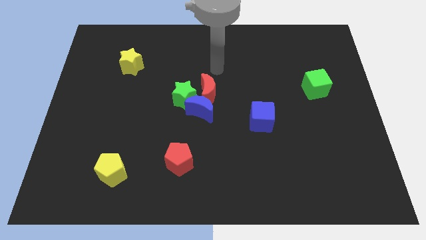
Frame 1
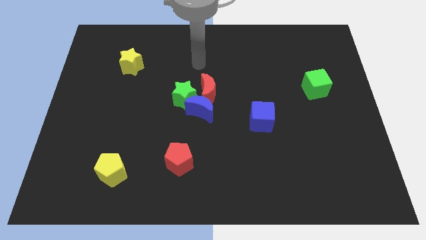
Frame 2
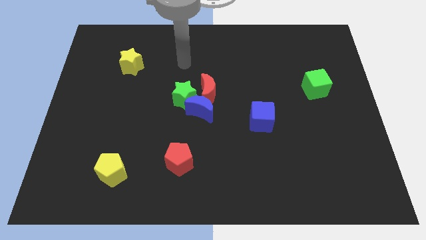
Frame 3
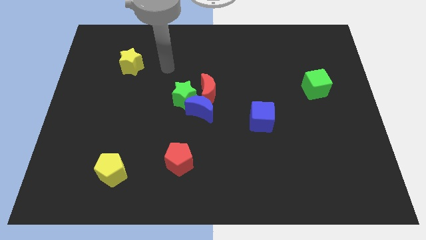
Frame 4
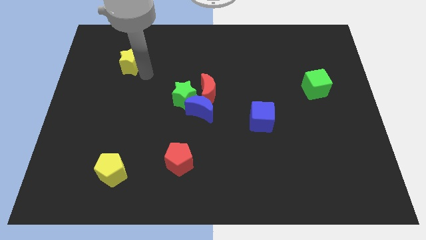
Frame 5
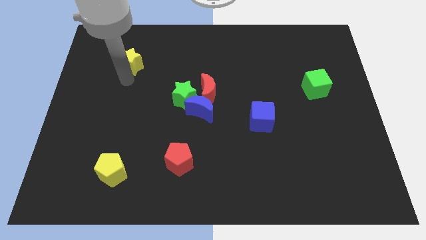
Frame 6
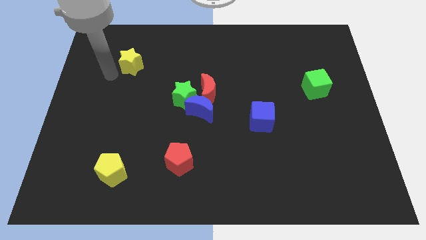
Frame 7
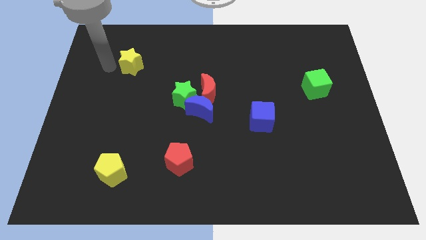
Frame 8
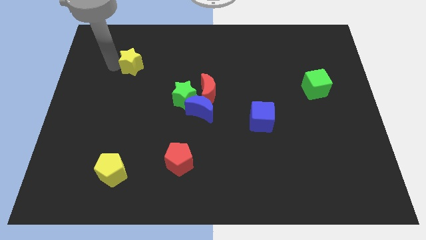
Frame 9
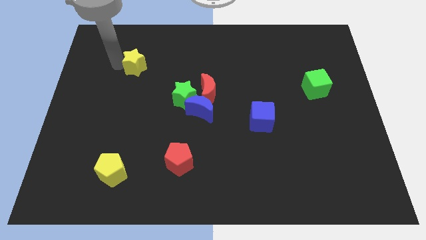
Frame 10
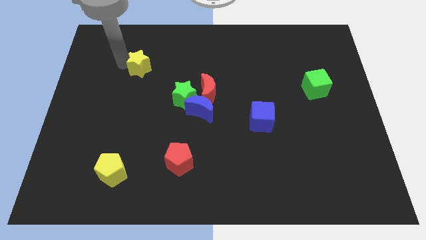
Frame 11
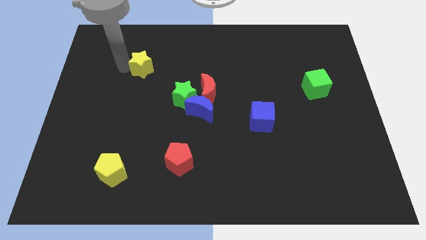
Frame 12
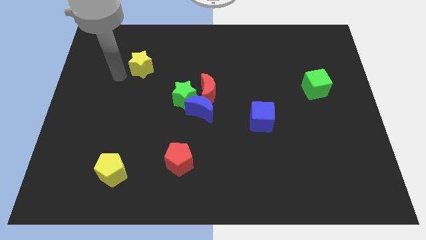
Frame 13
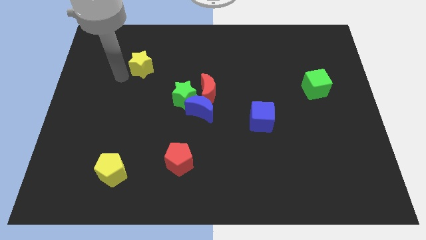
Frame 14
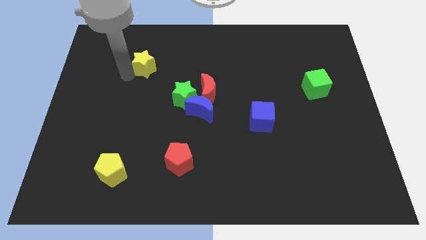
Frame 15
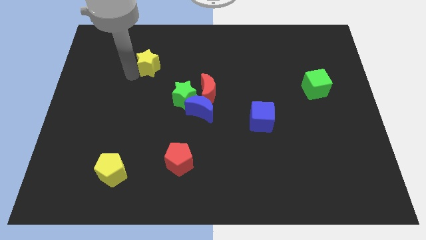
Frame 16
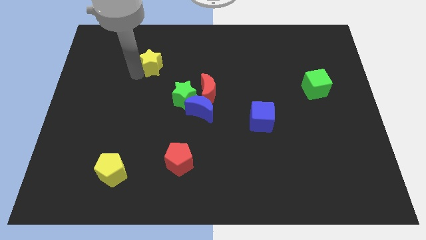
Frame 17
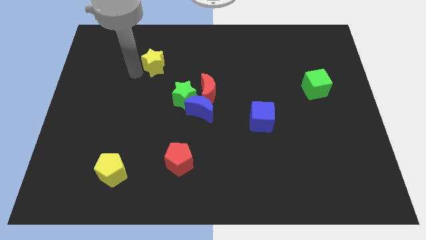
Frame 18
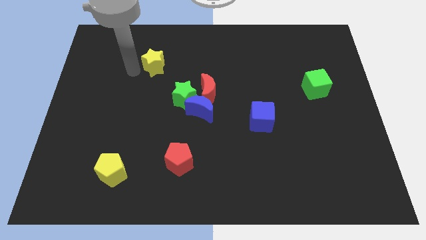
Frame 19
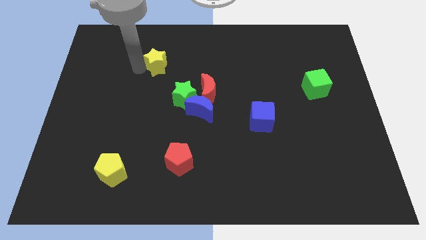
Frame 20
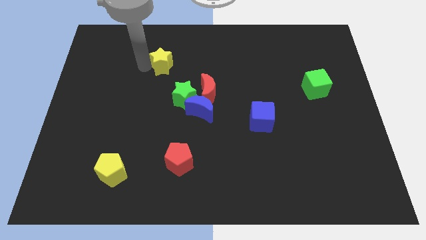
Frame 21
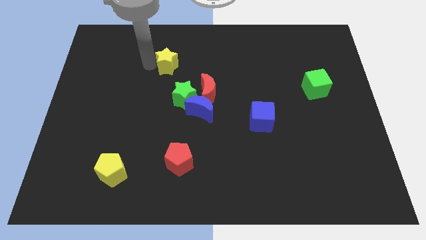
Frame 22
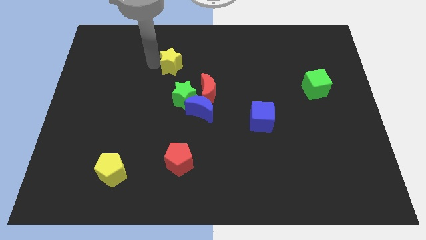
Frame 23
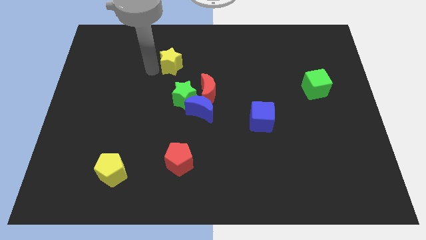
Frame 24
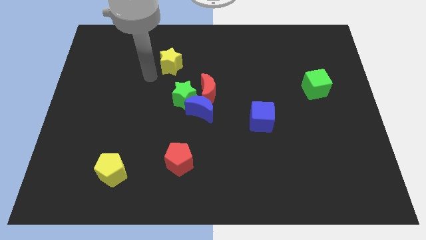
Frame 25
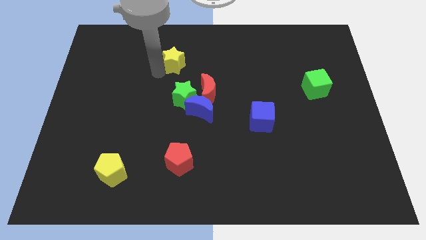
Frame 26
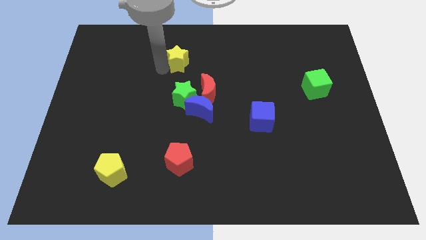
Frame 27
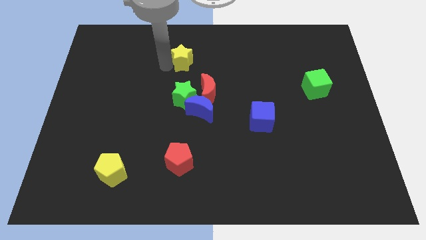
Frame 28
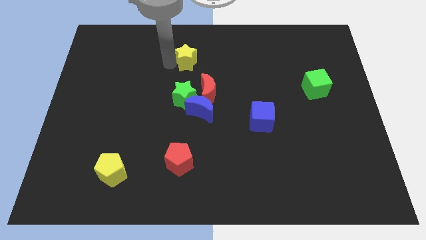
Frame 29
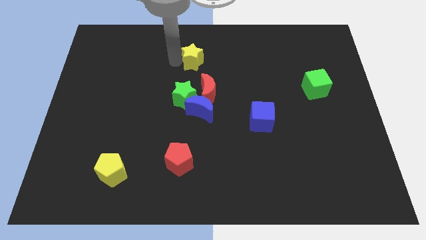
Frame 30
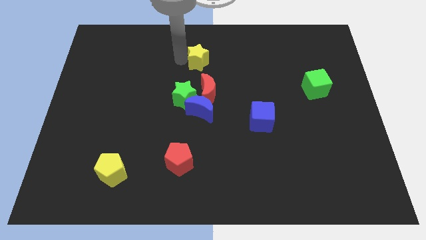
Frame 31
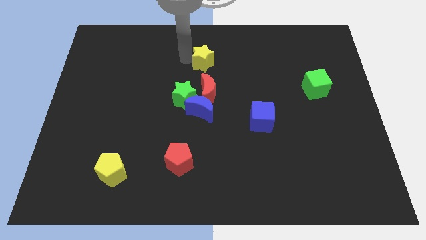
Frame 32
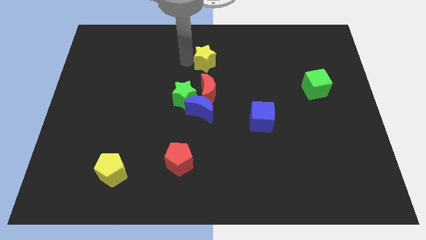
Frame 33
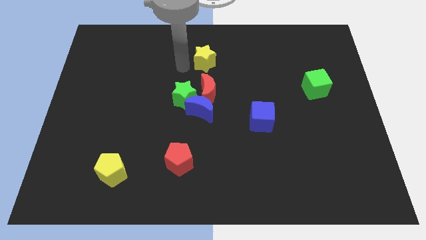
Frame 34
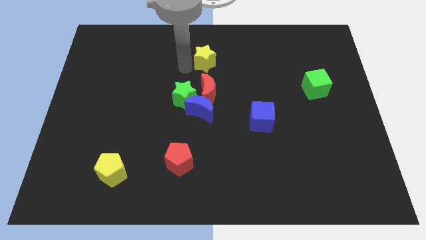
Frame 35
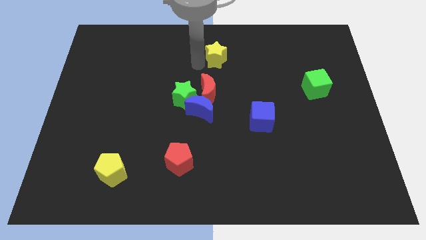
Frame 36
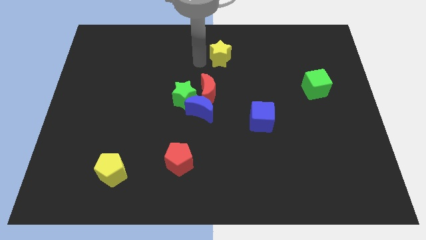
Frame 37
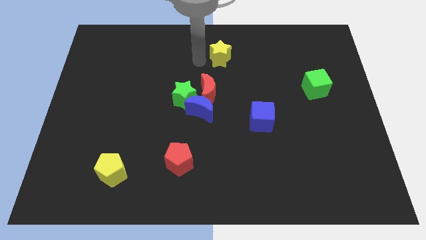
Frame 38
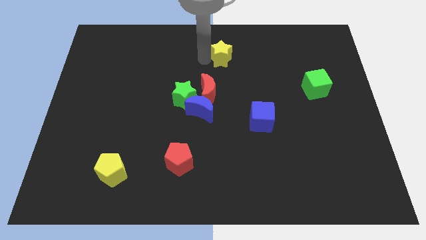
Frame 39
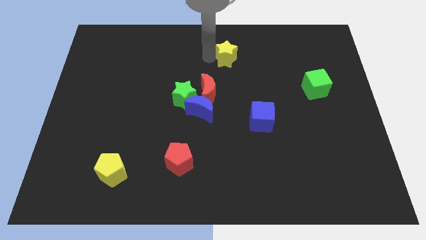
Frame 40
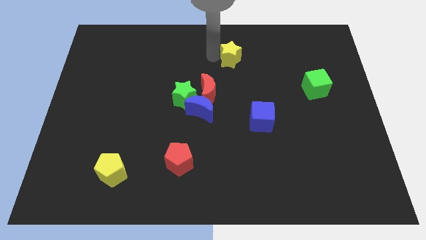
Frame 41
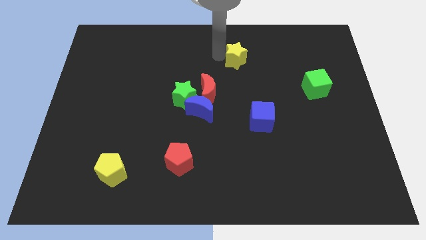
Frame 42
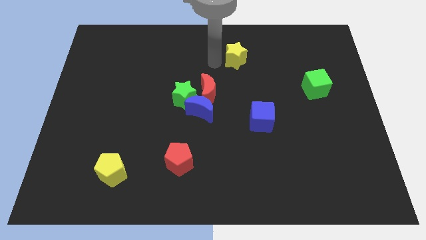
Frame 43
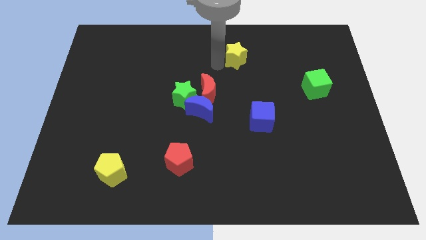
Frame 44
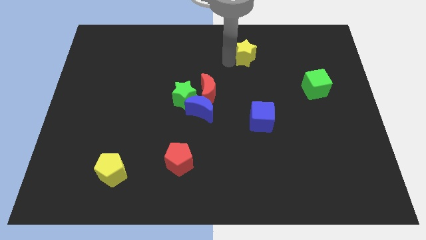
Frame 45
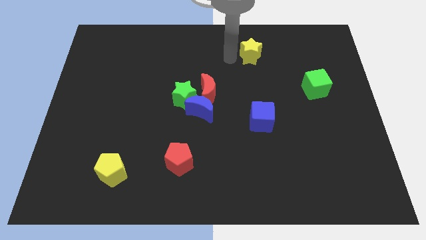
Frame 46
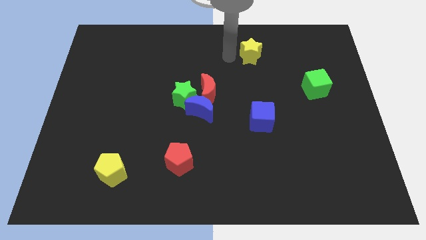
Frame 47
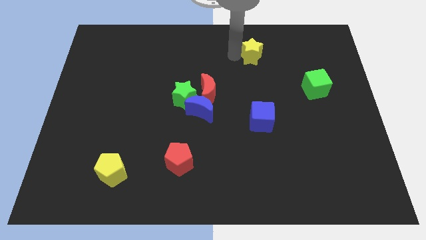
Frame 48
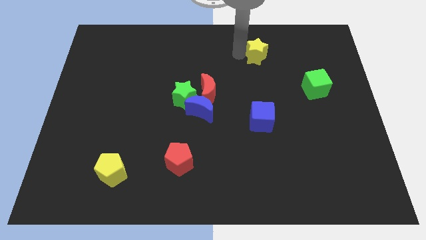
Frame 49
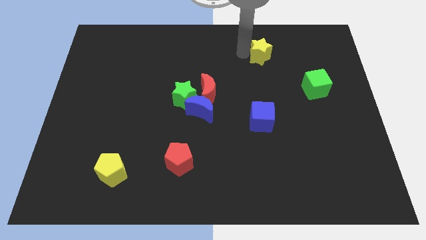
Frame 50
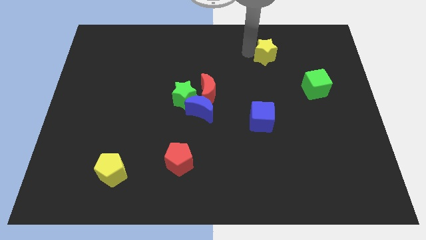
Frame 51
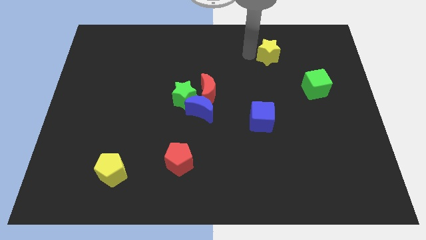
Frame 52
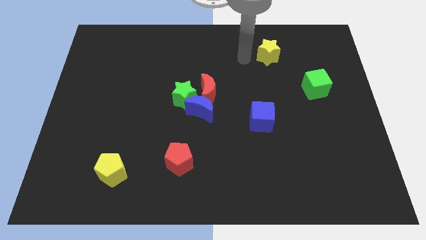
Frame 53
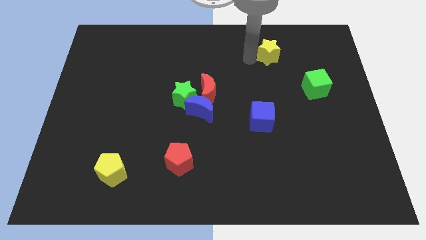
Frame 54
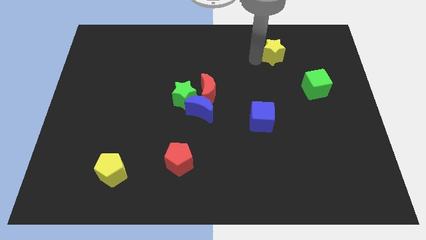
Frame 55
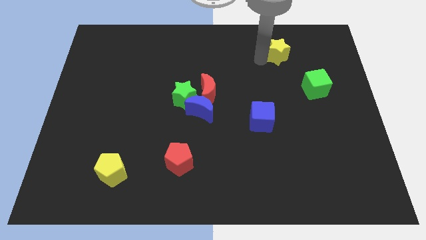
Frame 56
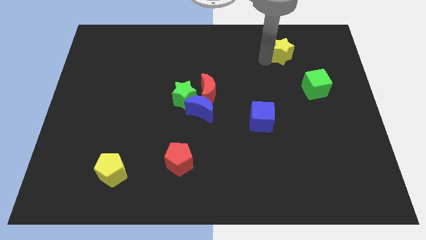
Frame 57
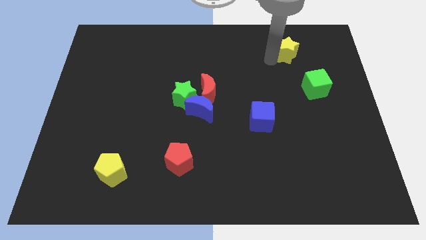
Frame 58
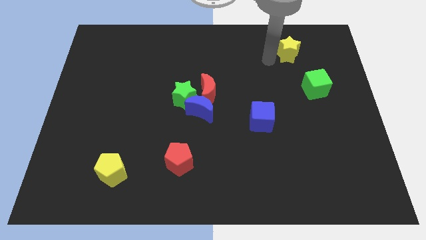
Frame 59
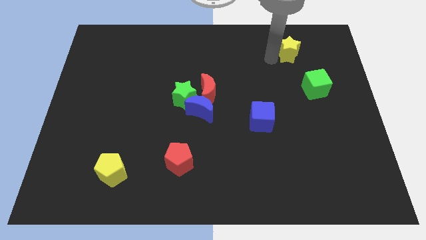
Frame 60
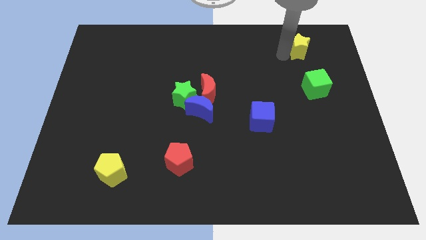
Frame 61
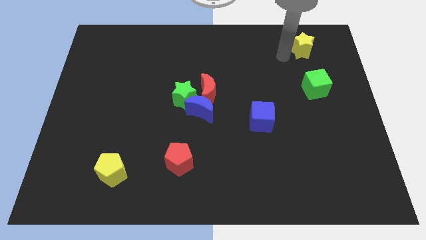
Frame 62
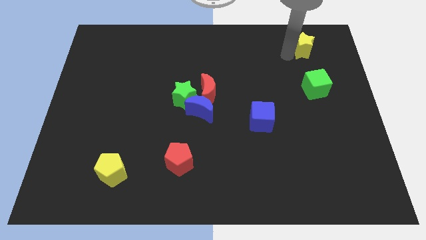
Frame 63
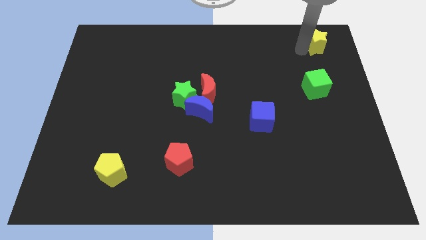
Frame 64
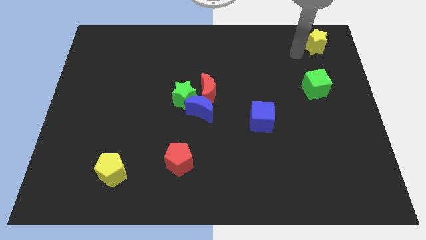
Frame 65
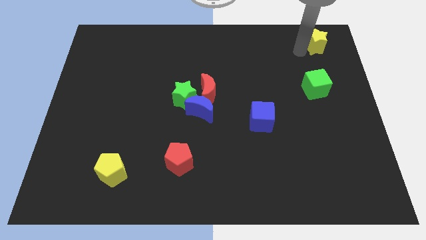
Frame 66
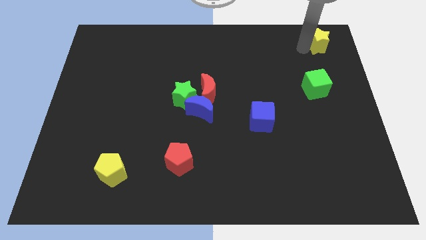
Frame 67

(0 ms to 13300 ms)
move the yellow star to the upper right corner
